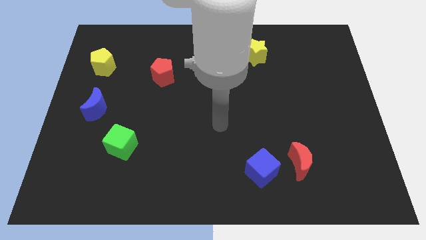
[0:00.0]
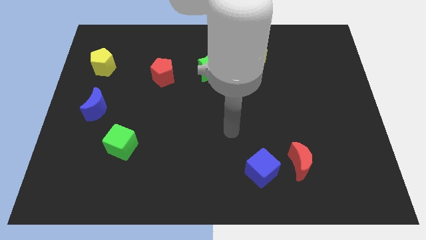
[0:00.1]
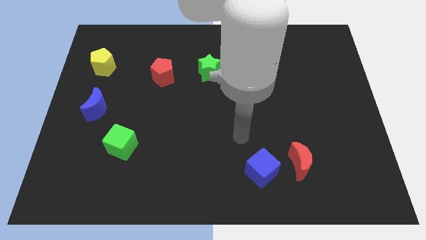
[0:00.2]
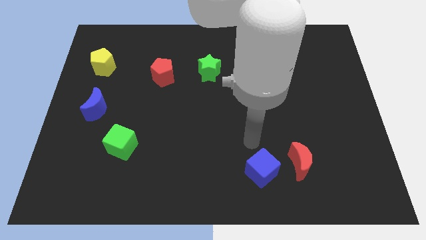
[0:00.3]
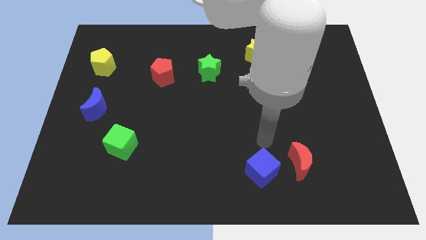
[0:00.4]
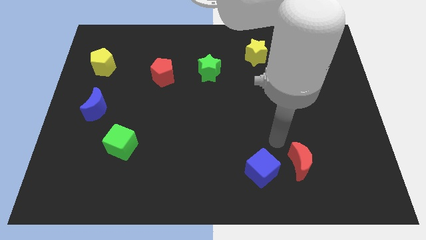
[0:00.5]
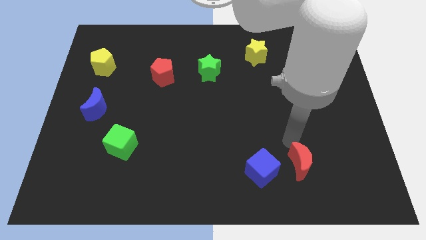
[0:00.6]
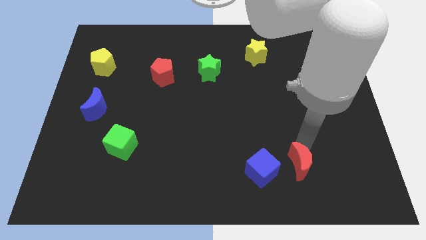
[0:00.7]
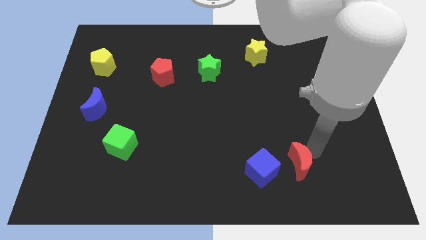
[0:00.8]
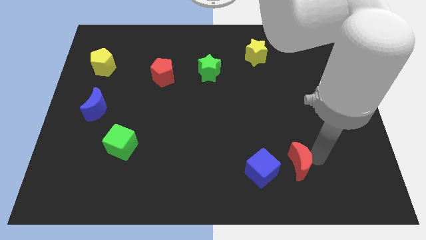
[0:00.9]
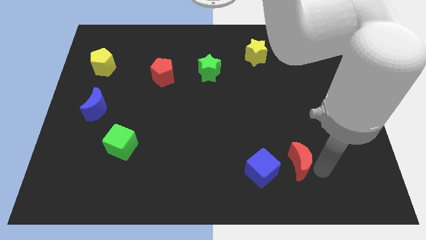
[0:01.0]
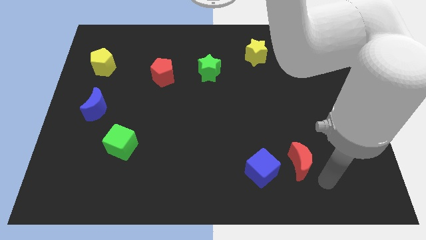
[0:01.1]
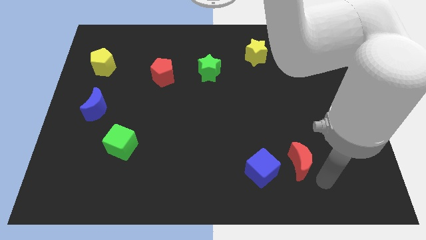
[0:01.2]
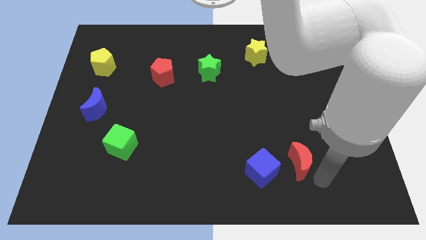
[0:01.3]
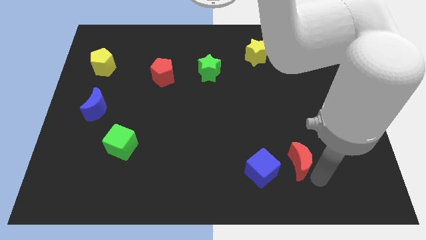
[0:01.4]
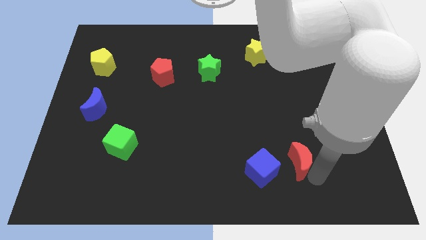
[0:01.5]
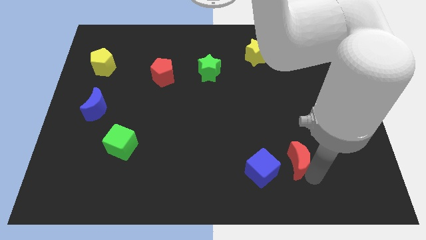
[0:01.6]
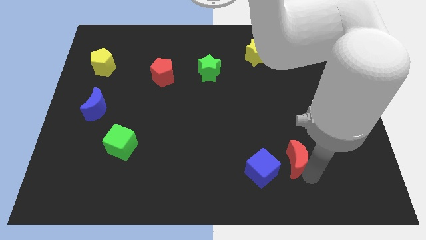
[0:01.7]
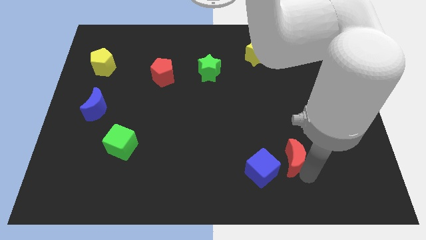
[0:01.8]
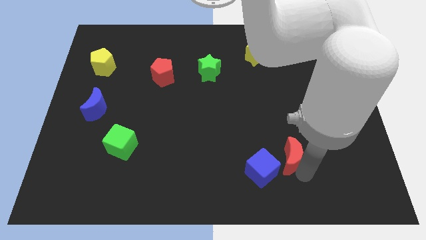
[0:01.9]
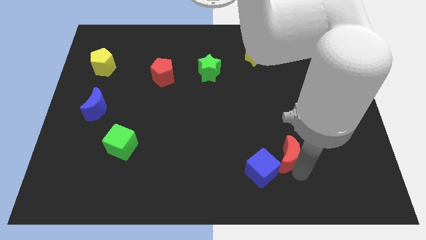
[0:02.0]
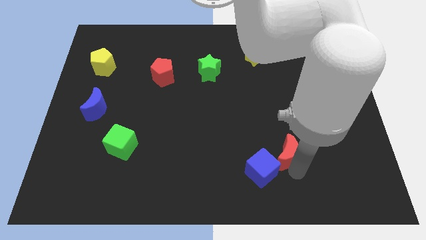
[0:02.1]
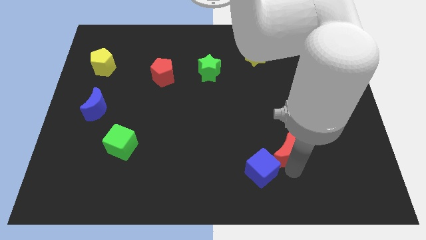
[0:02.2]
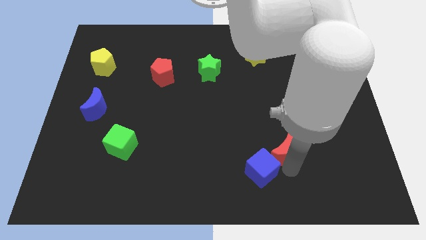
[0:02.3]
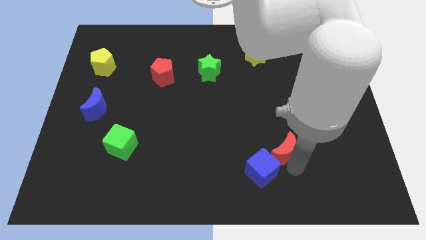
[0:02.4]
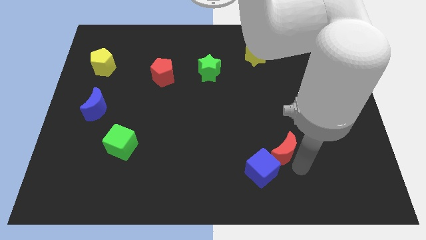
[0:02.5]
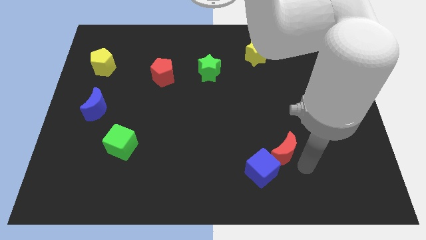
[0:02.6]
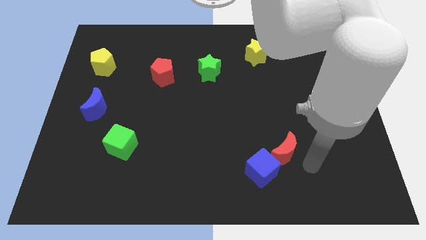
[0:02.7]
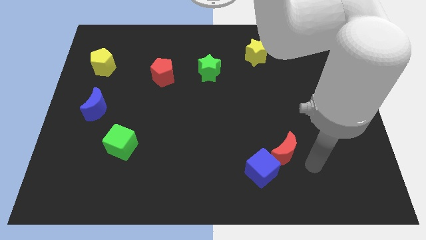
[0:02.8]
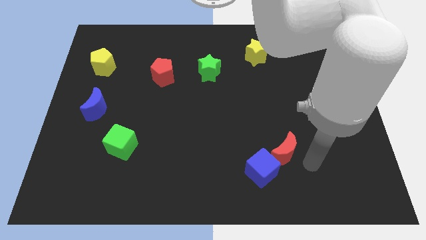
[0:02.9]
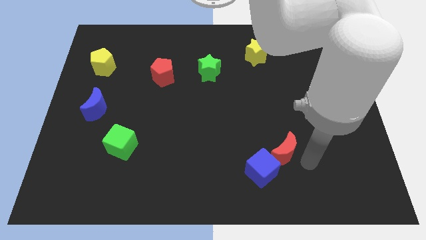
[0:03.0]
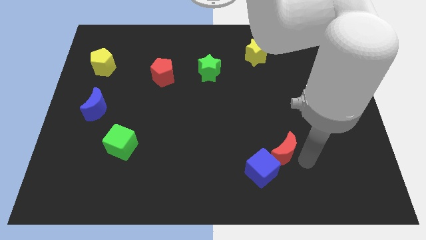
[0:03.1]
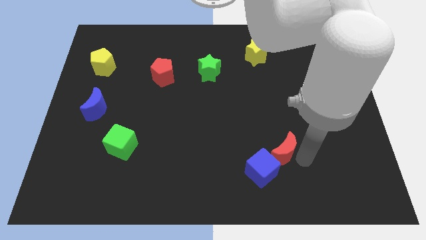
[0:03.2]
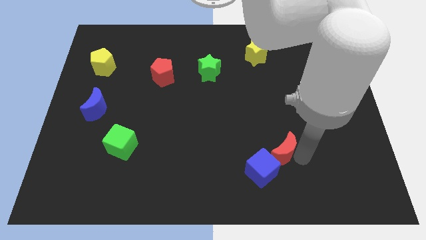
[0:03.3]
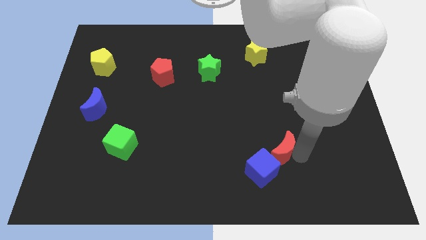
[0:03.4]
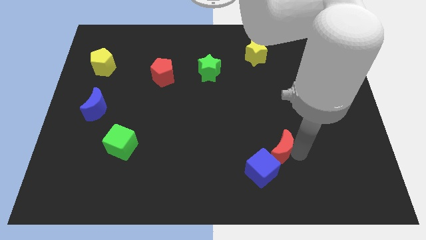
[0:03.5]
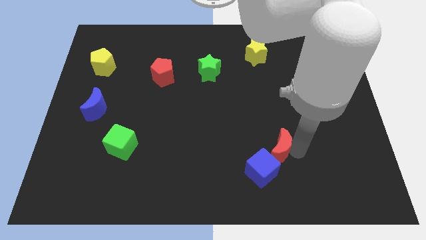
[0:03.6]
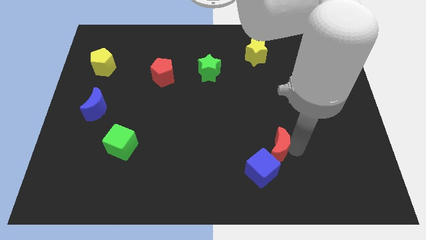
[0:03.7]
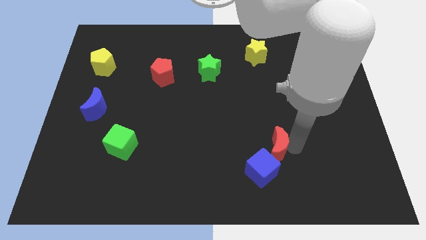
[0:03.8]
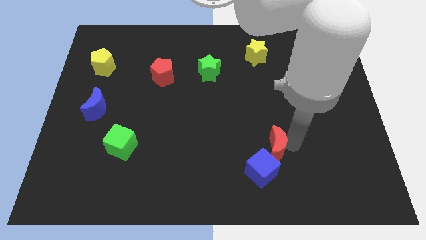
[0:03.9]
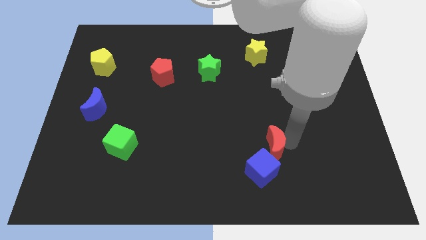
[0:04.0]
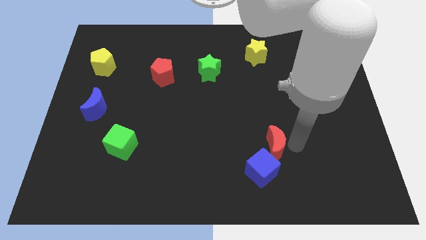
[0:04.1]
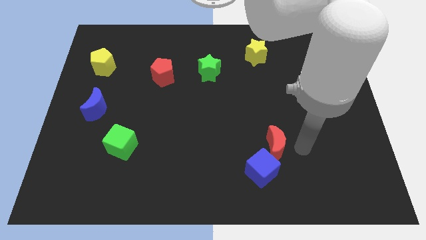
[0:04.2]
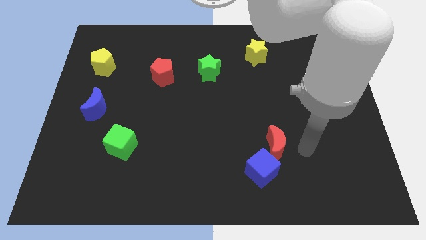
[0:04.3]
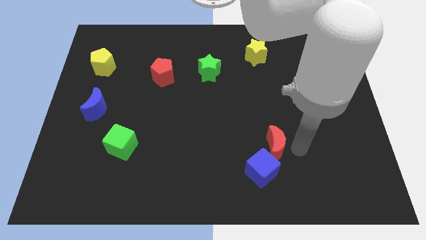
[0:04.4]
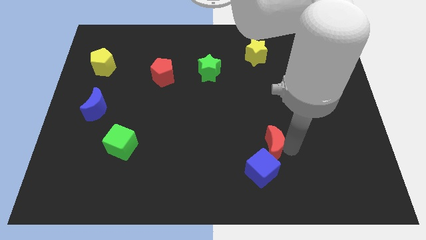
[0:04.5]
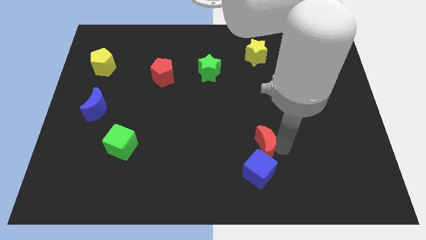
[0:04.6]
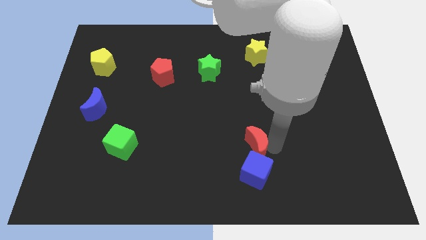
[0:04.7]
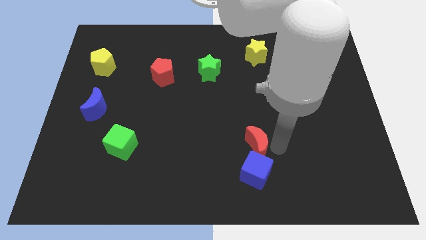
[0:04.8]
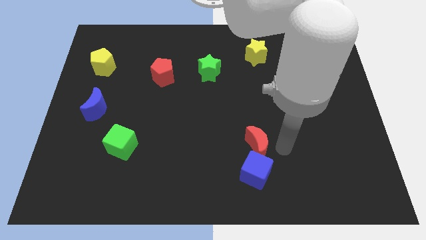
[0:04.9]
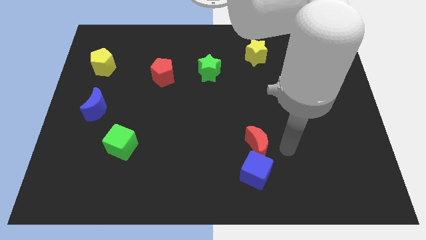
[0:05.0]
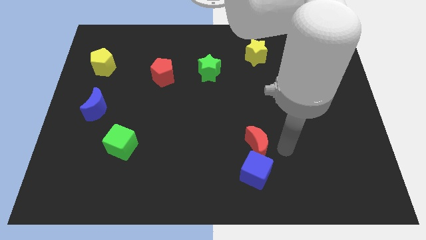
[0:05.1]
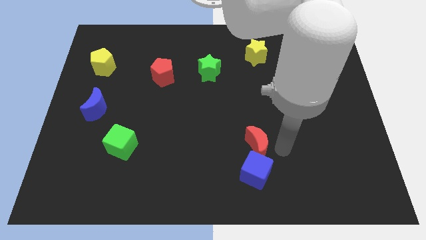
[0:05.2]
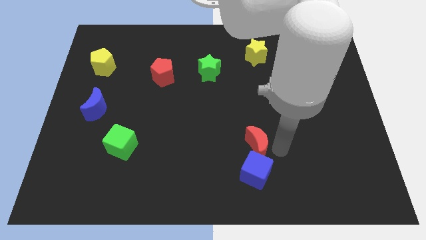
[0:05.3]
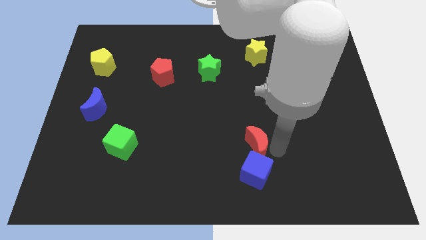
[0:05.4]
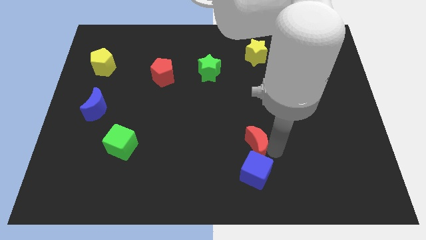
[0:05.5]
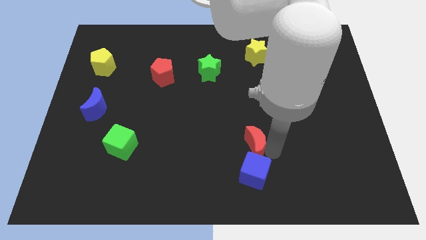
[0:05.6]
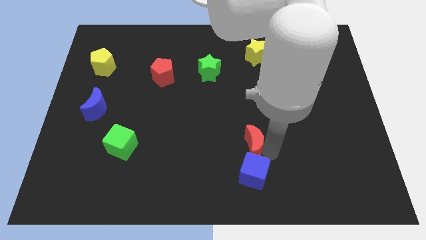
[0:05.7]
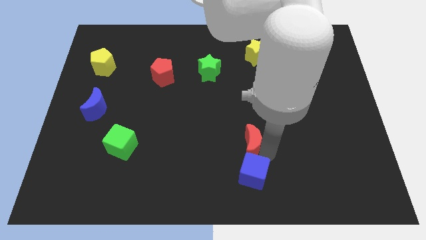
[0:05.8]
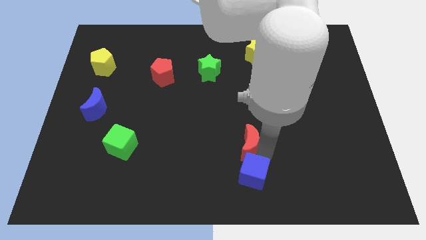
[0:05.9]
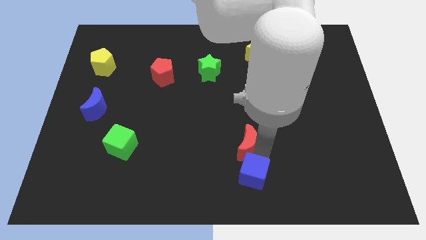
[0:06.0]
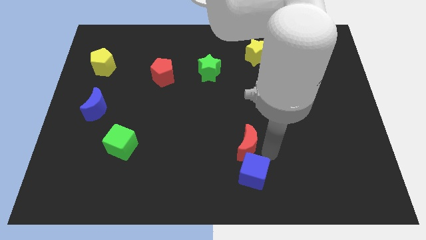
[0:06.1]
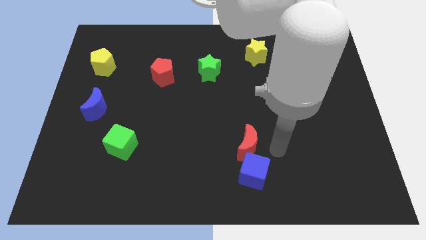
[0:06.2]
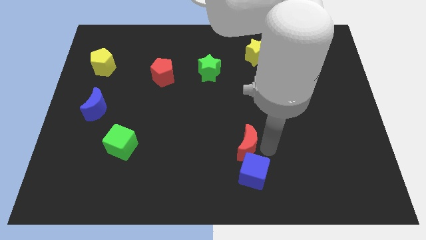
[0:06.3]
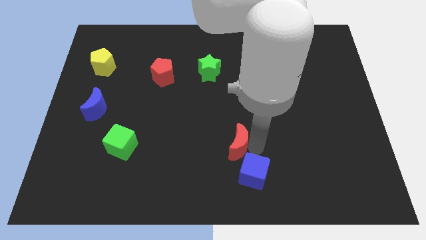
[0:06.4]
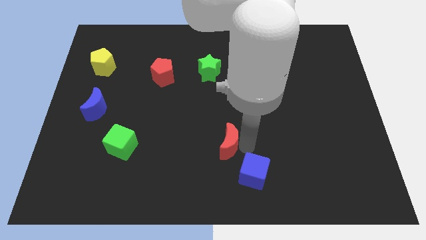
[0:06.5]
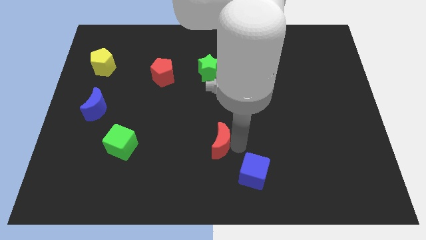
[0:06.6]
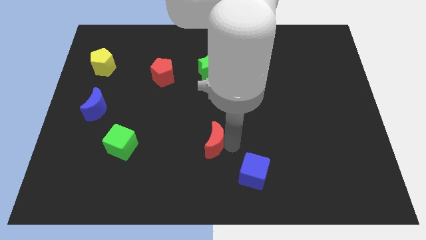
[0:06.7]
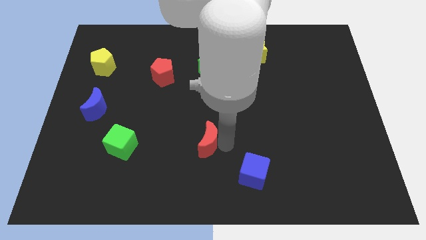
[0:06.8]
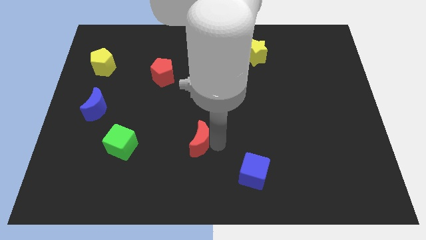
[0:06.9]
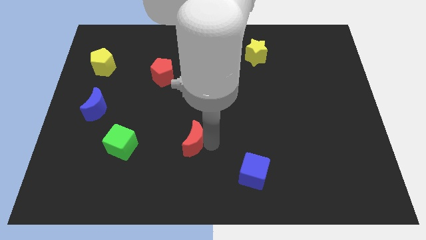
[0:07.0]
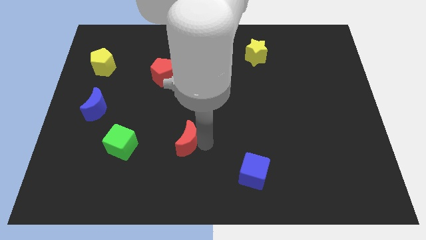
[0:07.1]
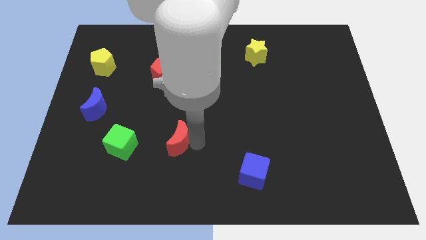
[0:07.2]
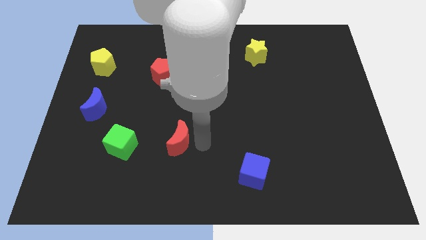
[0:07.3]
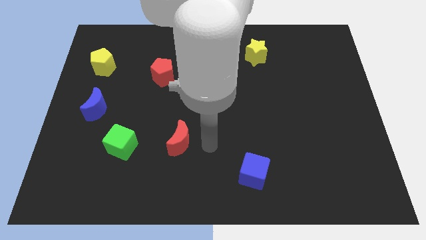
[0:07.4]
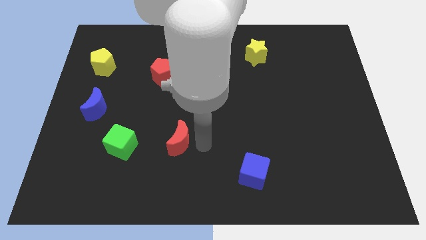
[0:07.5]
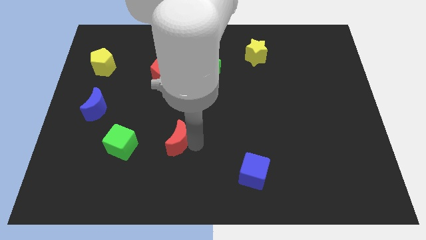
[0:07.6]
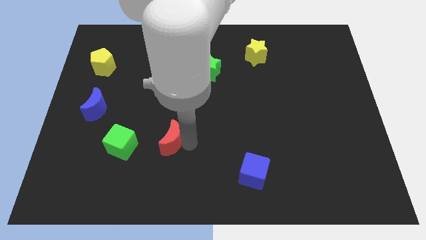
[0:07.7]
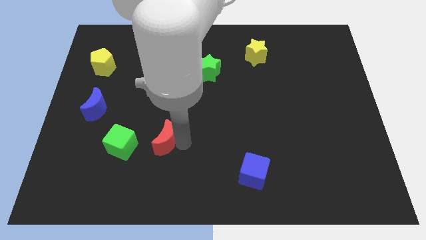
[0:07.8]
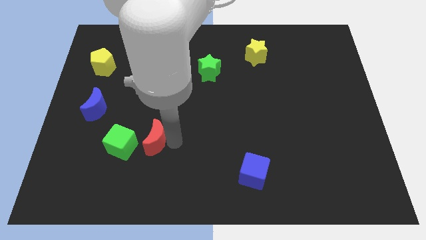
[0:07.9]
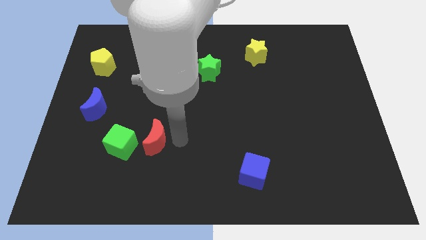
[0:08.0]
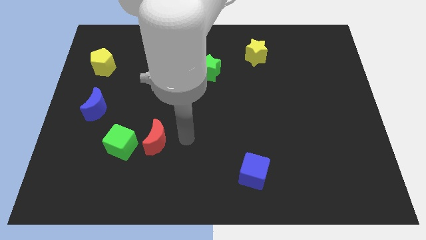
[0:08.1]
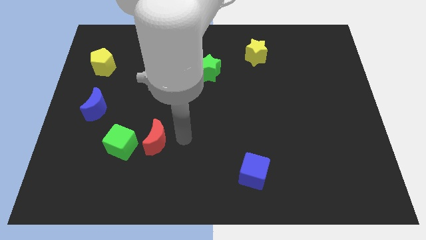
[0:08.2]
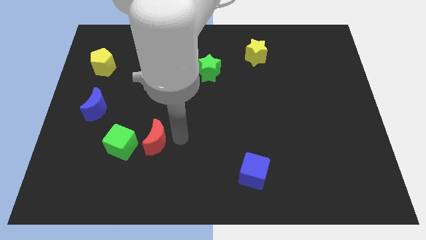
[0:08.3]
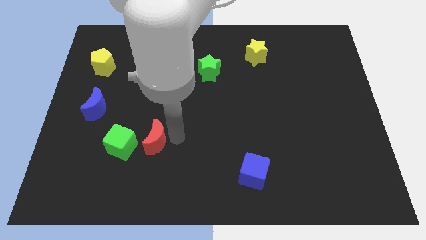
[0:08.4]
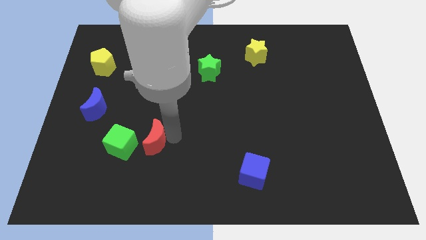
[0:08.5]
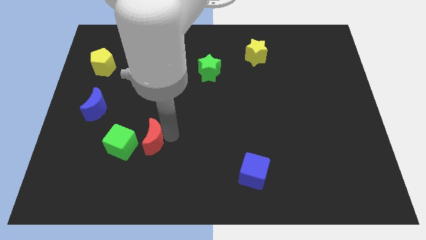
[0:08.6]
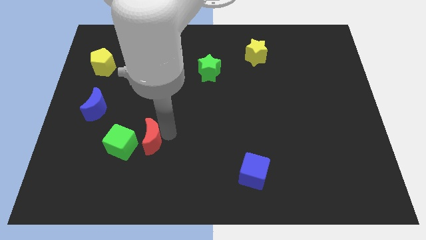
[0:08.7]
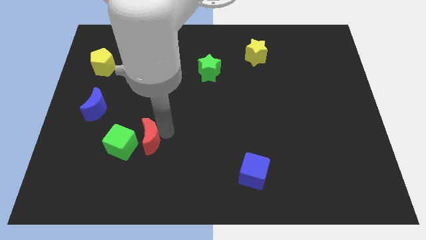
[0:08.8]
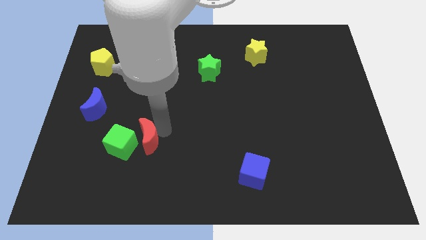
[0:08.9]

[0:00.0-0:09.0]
move the red moon to the green cube
